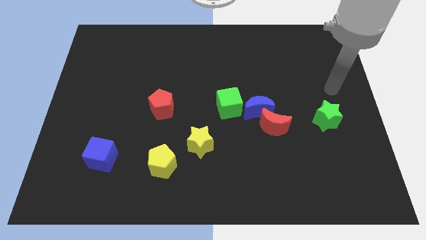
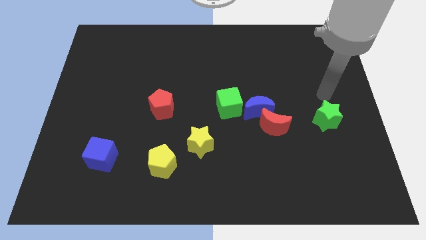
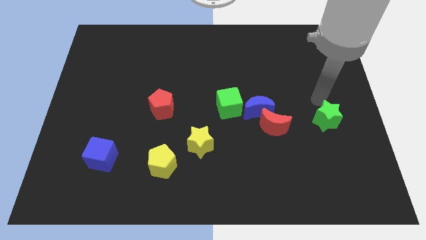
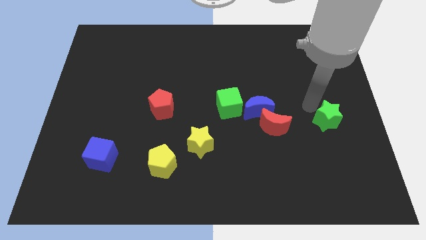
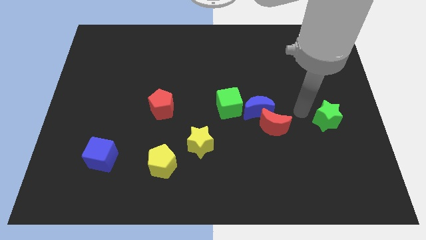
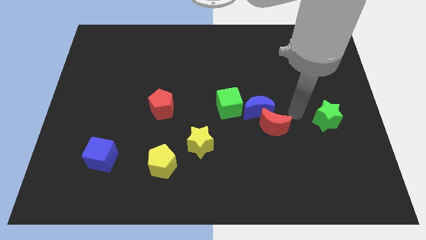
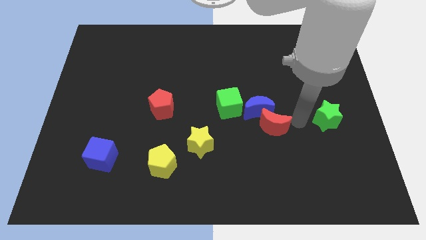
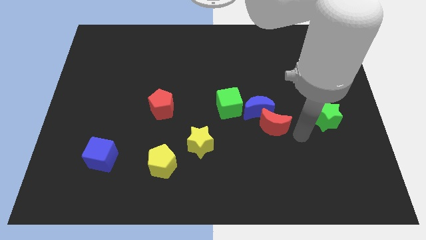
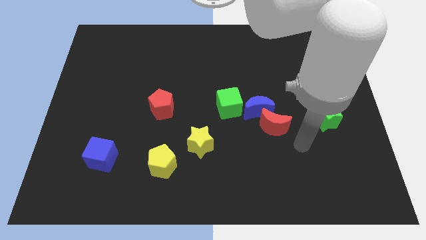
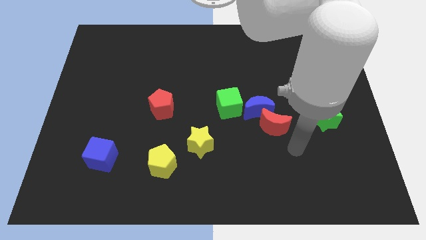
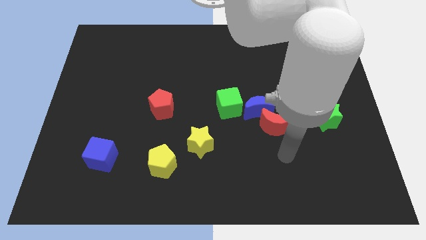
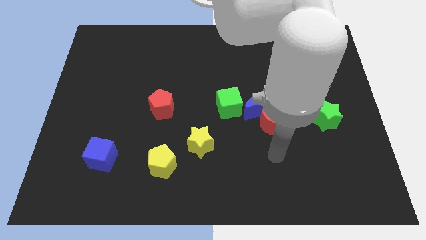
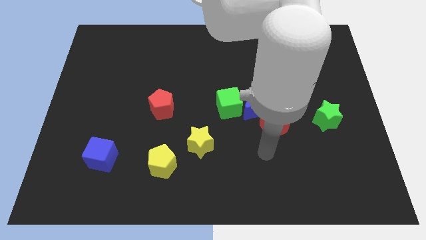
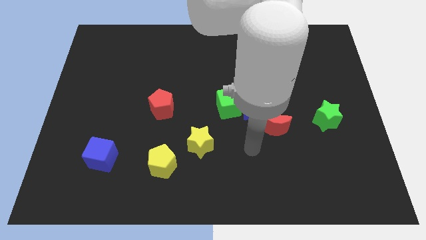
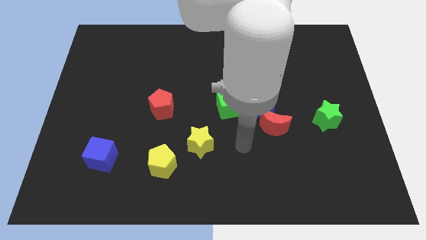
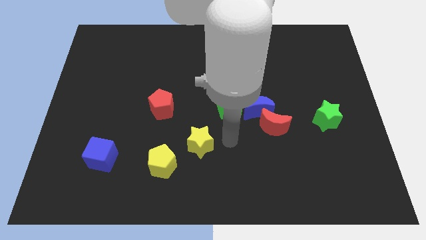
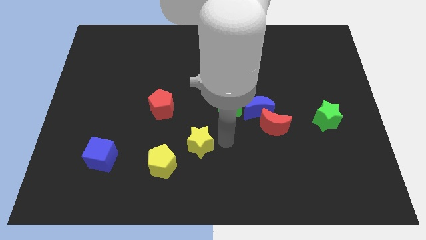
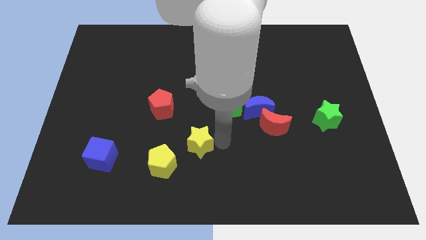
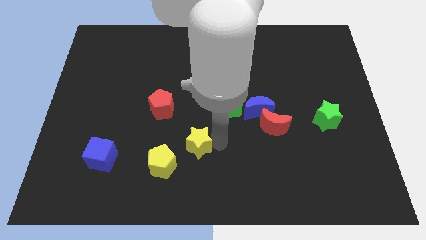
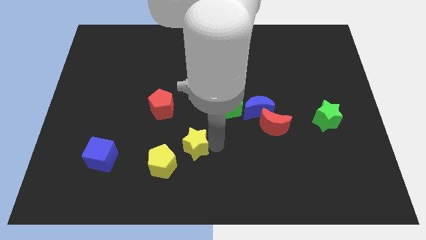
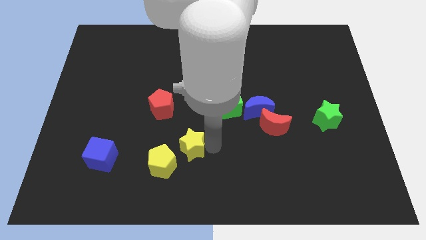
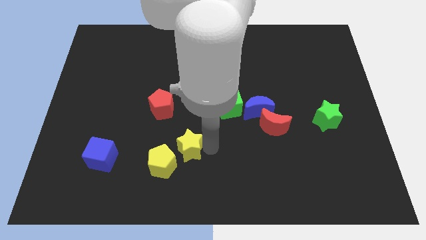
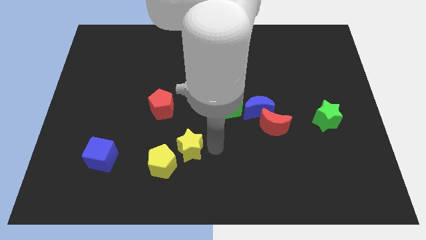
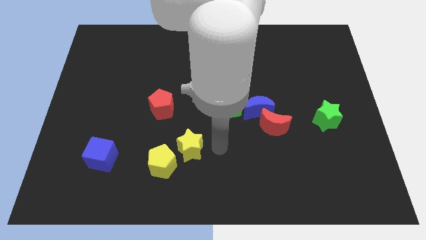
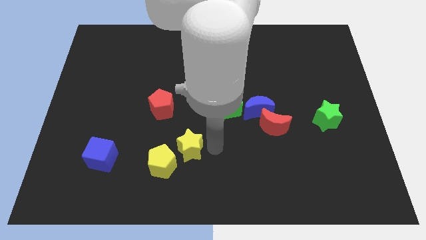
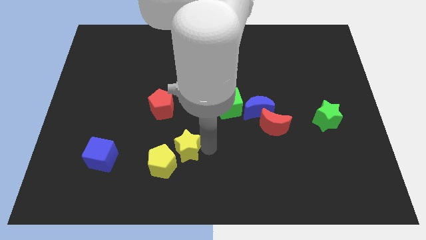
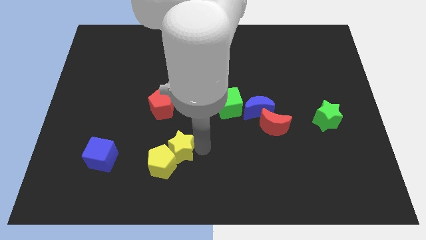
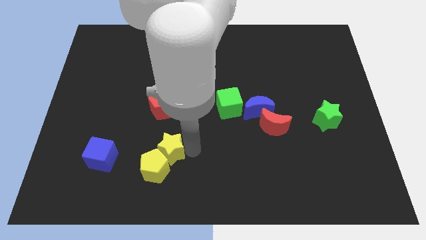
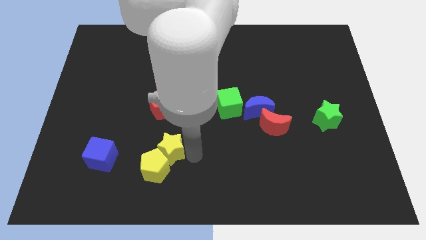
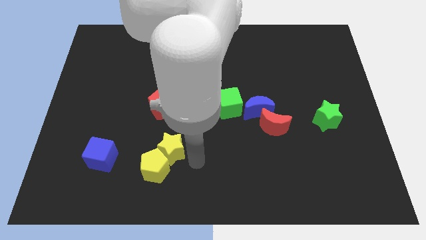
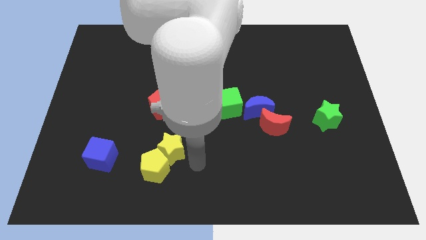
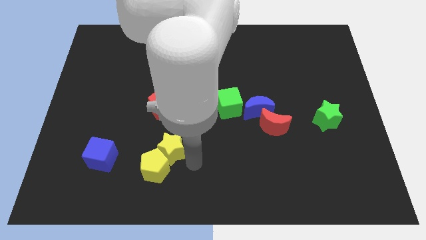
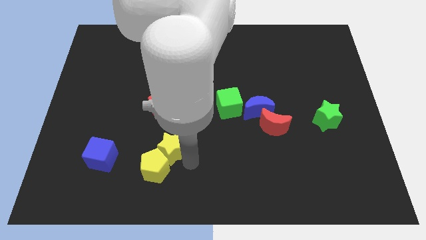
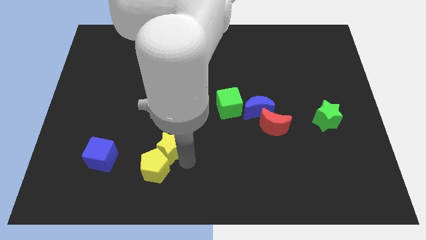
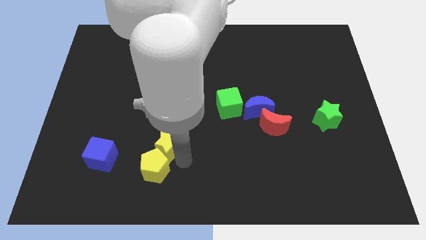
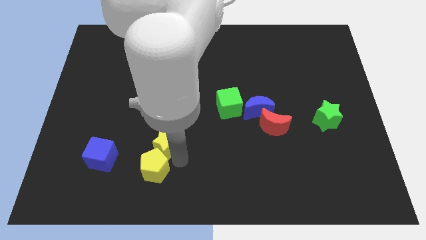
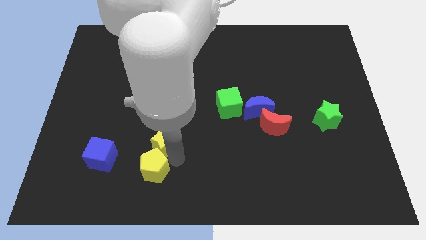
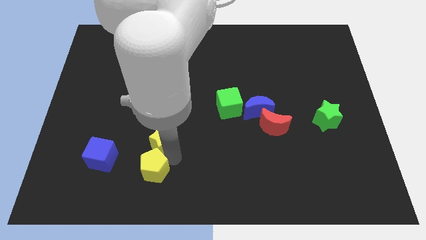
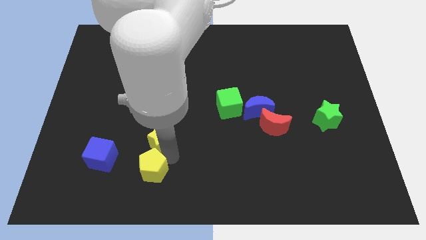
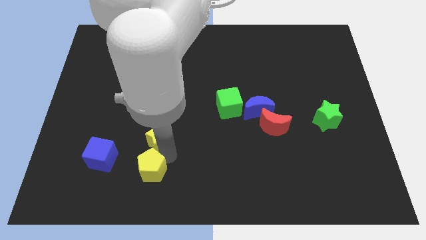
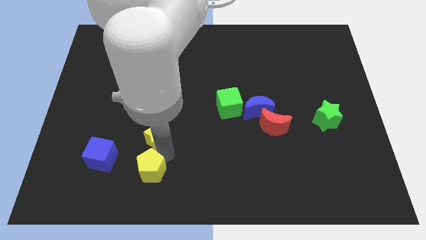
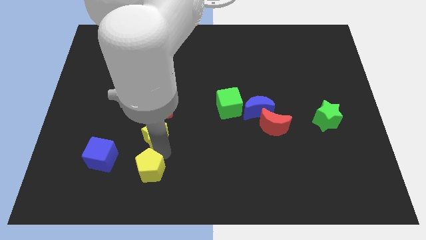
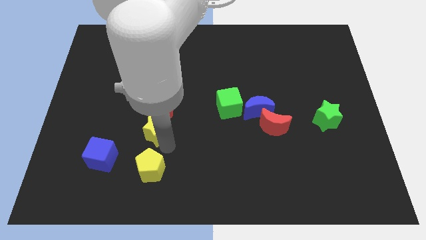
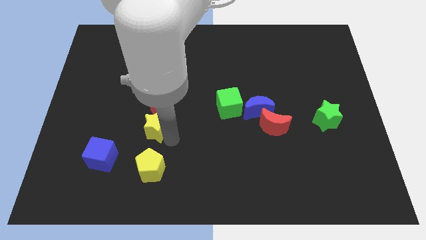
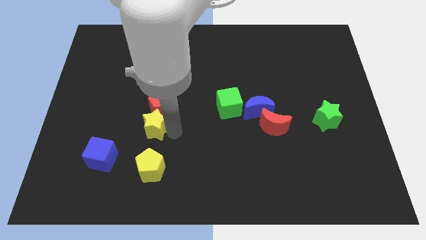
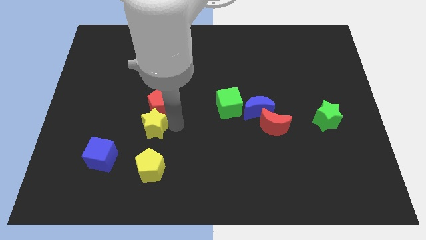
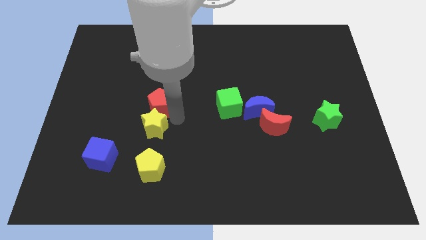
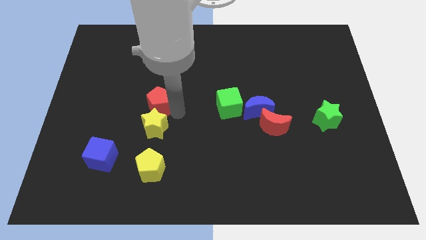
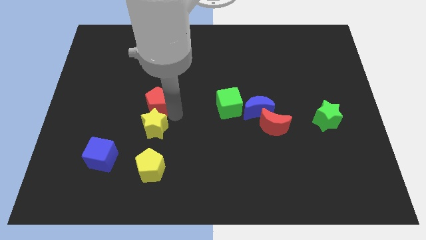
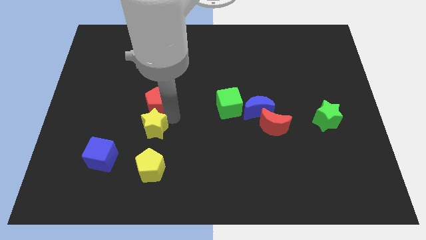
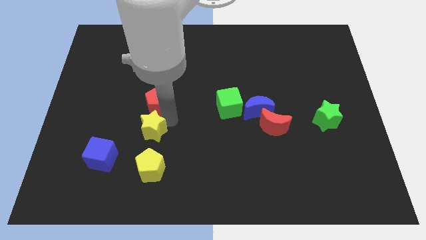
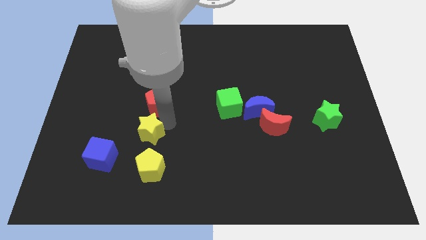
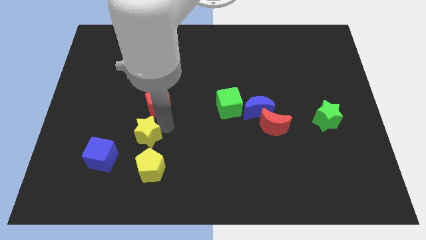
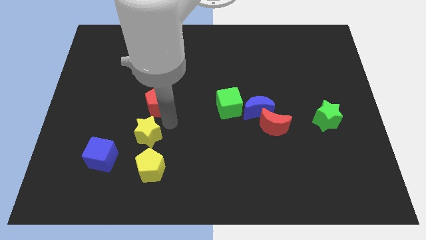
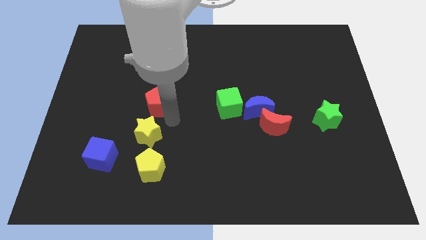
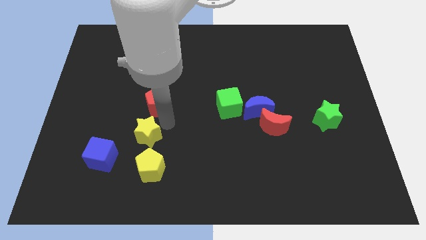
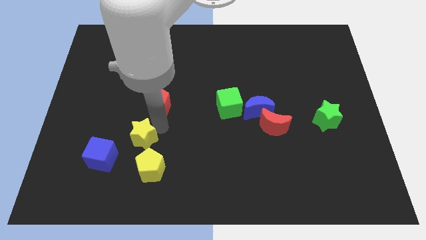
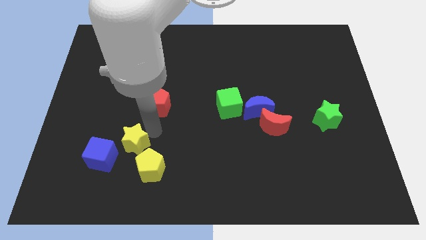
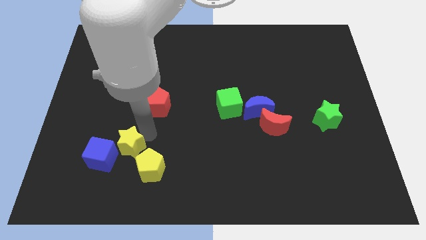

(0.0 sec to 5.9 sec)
slide the yellow star to the blue cube
